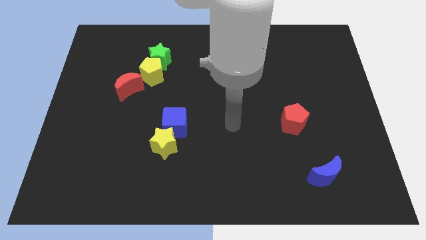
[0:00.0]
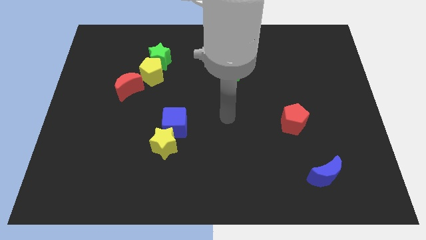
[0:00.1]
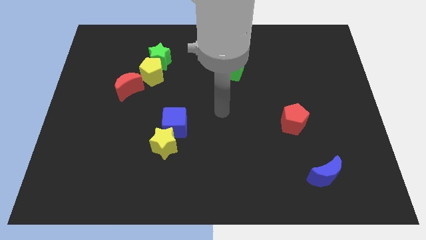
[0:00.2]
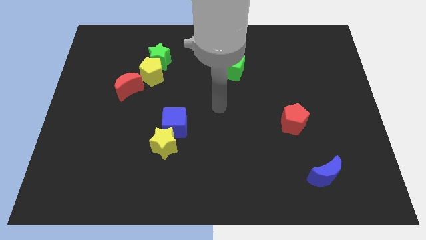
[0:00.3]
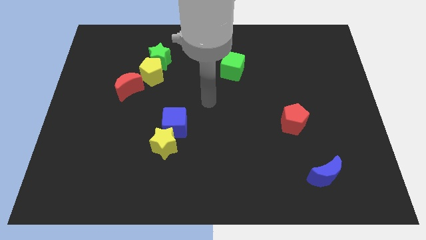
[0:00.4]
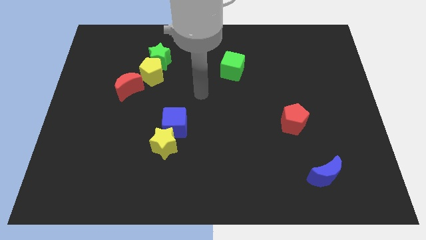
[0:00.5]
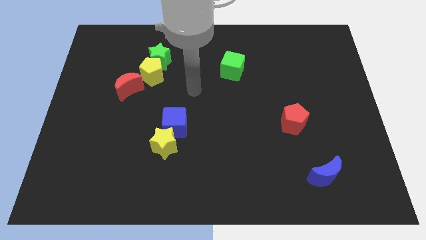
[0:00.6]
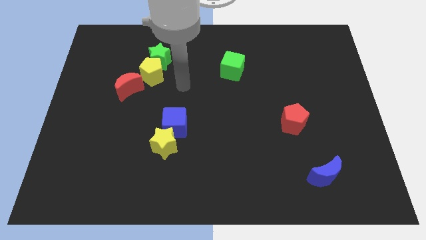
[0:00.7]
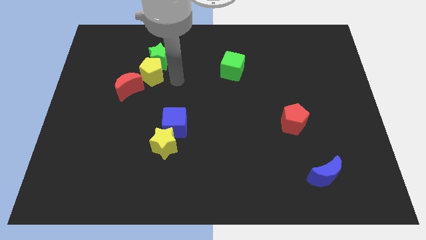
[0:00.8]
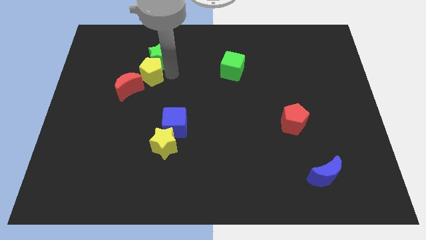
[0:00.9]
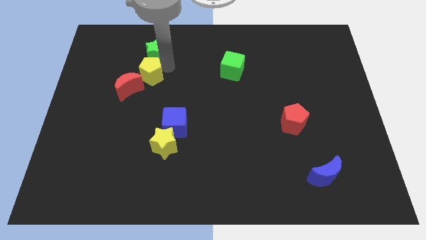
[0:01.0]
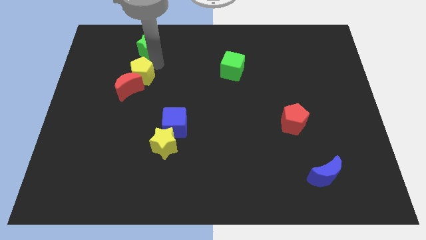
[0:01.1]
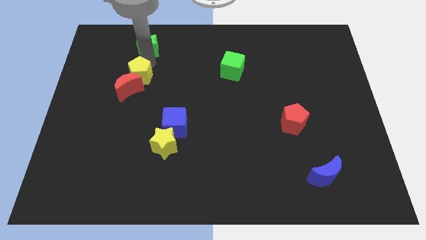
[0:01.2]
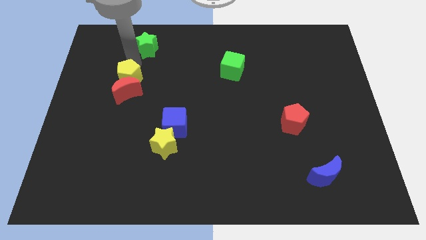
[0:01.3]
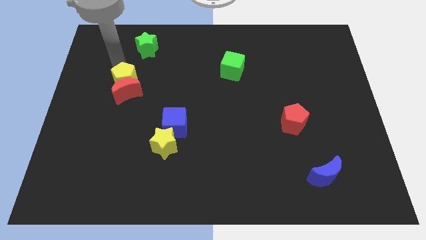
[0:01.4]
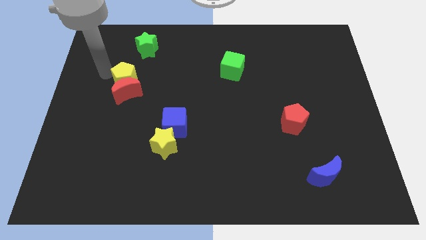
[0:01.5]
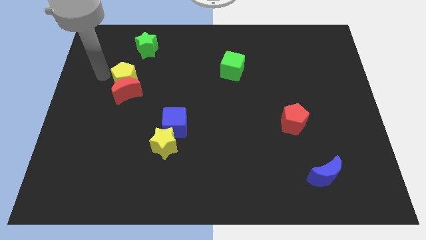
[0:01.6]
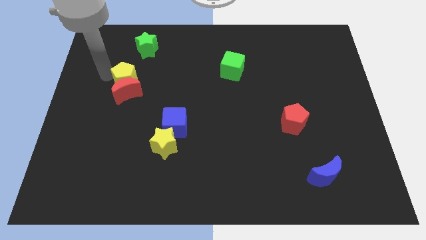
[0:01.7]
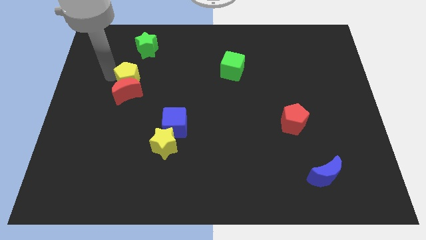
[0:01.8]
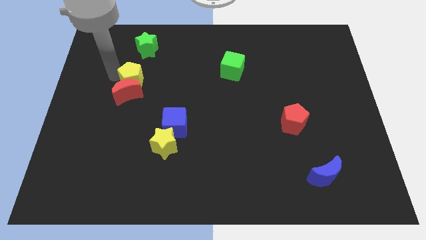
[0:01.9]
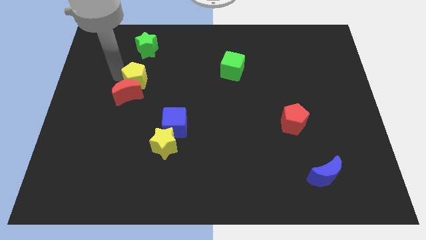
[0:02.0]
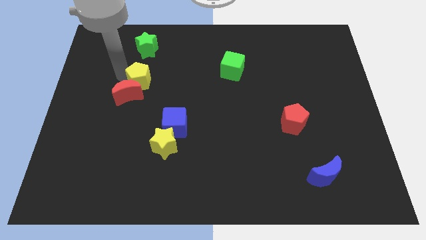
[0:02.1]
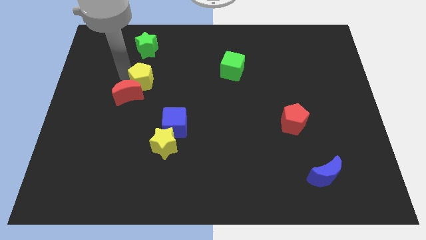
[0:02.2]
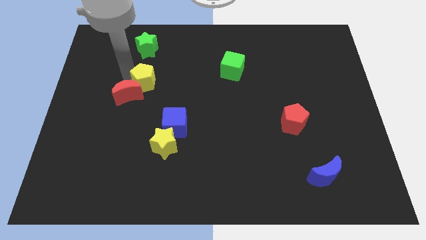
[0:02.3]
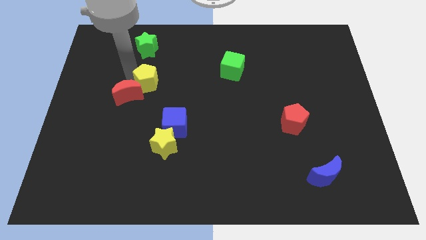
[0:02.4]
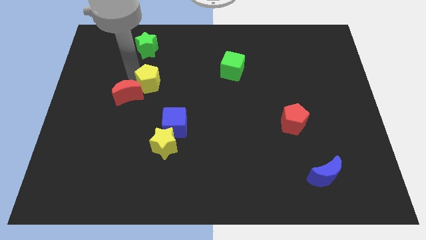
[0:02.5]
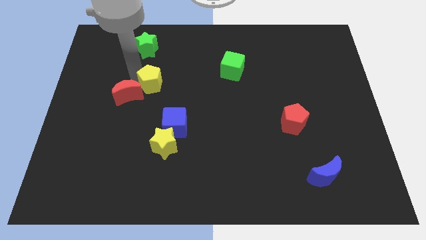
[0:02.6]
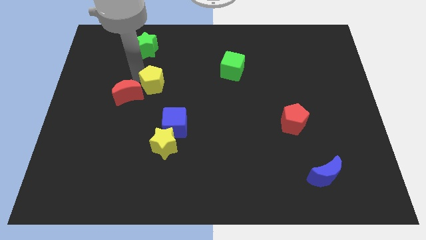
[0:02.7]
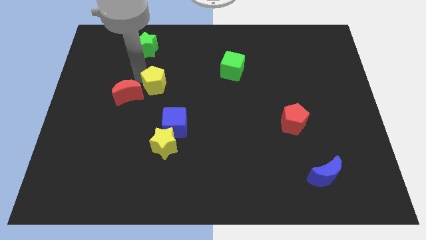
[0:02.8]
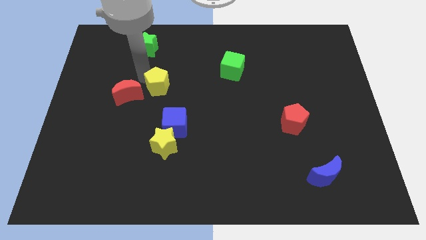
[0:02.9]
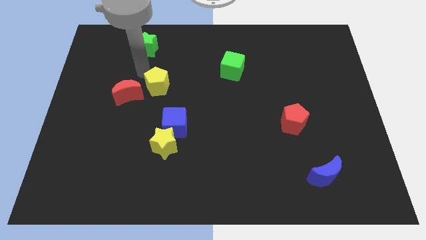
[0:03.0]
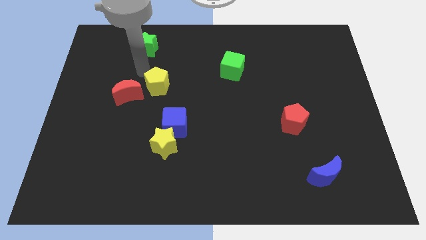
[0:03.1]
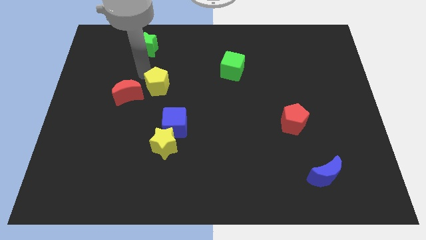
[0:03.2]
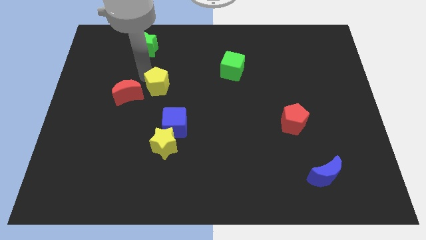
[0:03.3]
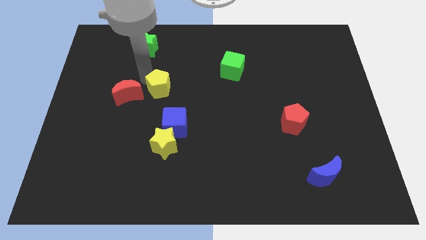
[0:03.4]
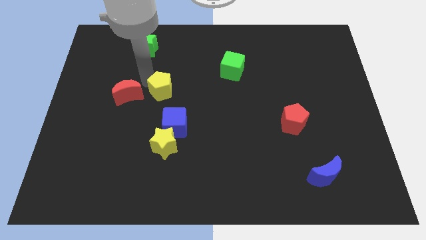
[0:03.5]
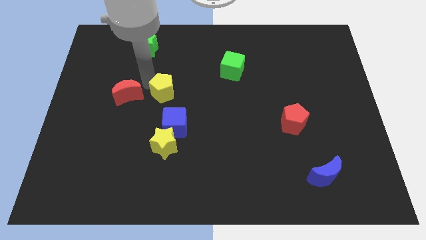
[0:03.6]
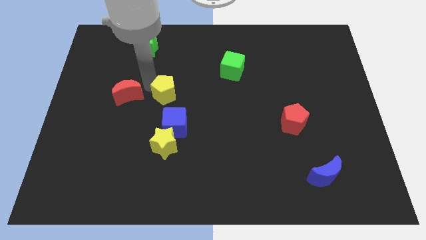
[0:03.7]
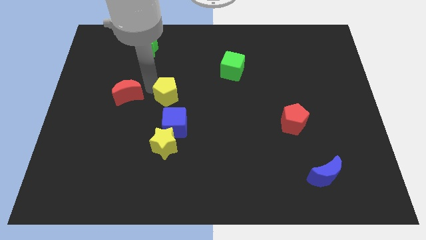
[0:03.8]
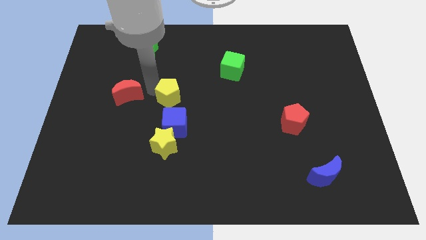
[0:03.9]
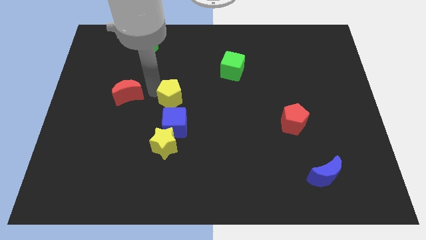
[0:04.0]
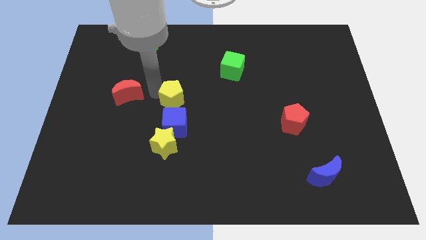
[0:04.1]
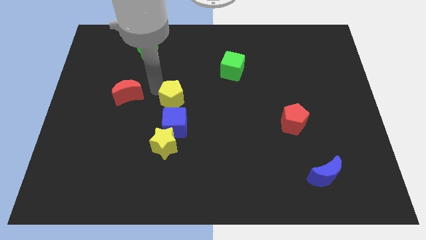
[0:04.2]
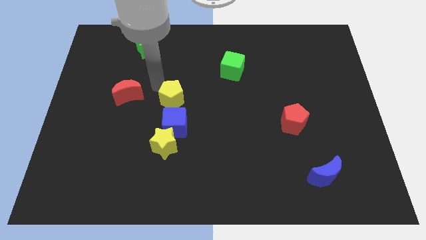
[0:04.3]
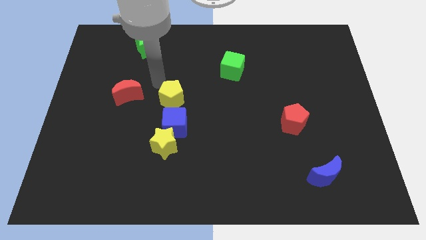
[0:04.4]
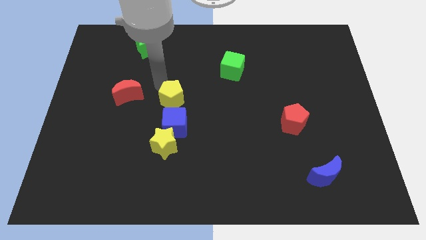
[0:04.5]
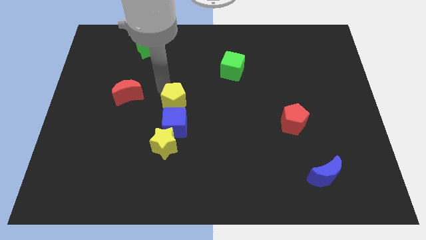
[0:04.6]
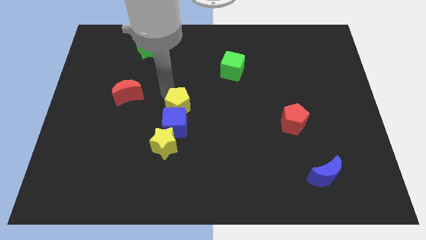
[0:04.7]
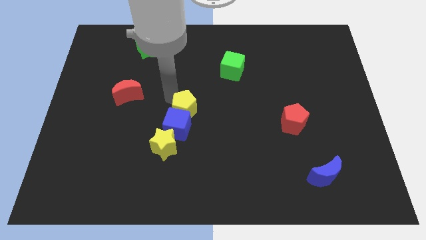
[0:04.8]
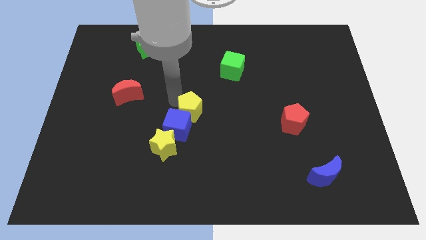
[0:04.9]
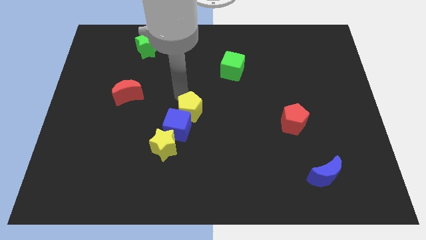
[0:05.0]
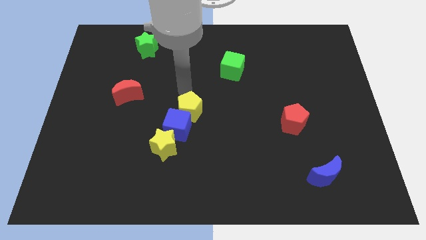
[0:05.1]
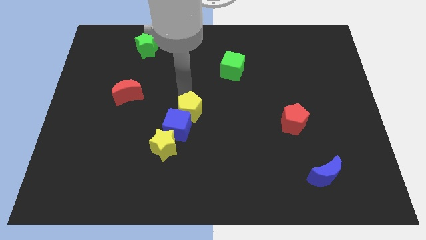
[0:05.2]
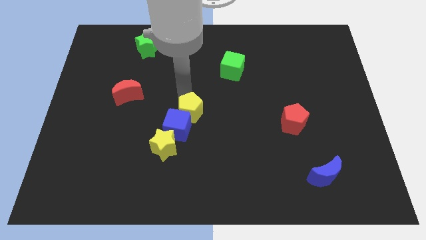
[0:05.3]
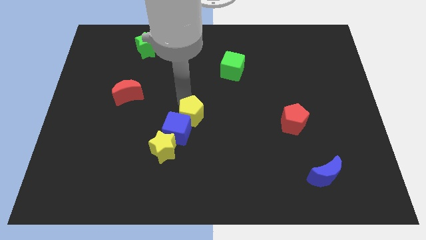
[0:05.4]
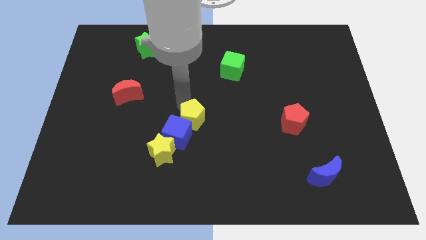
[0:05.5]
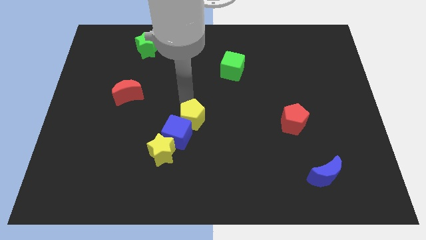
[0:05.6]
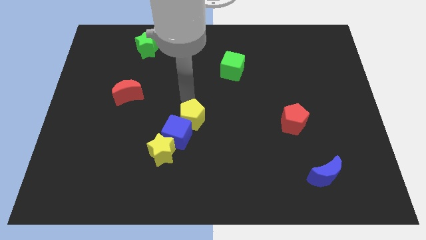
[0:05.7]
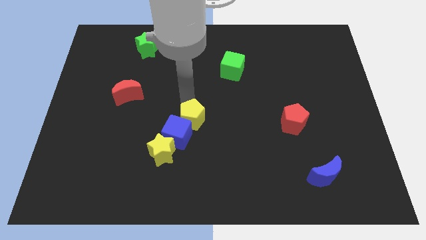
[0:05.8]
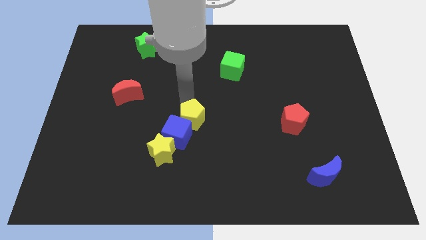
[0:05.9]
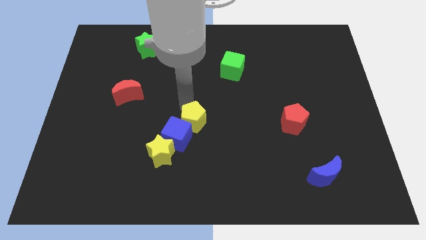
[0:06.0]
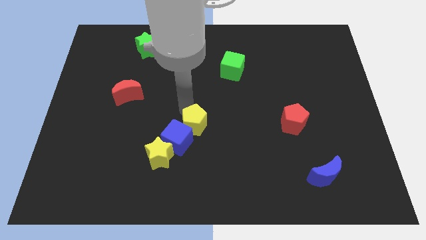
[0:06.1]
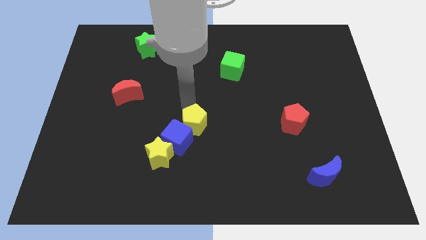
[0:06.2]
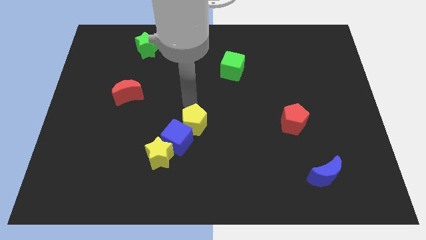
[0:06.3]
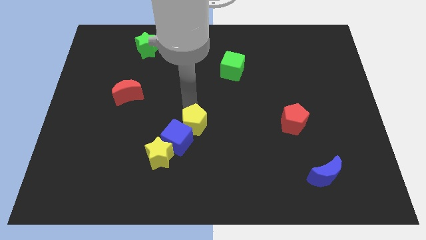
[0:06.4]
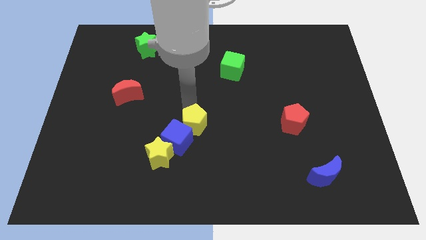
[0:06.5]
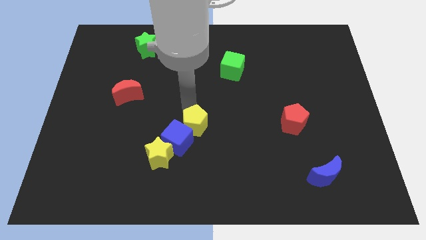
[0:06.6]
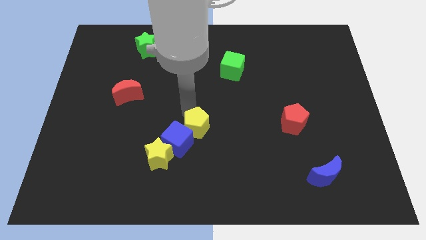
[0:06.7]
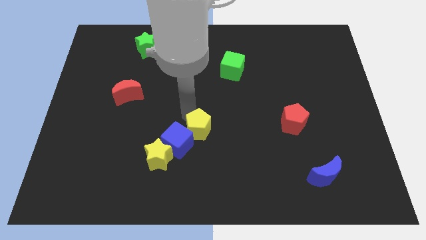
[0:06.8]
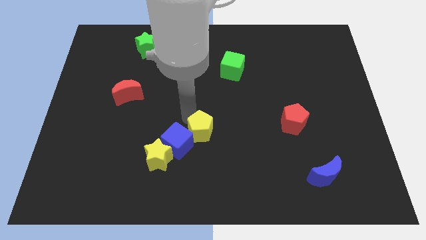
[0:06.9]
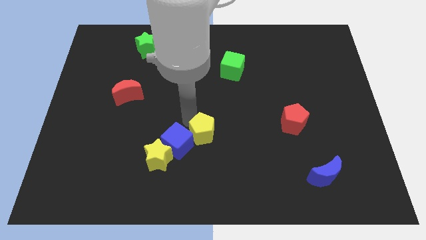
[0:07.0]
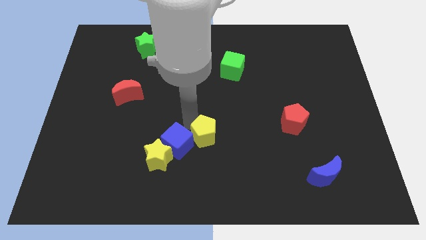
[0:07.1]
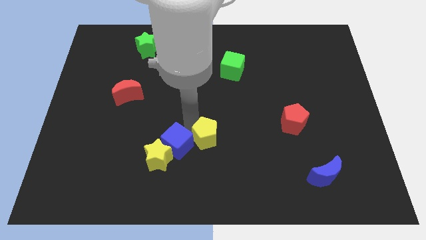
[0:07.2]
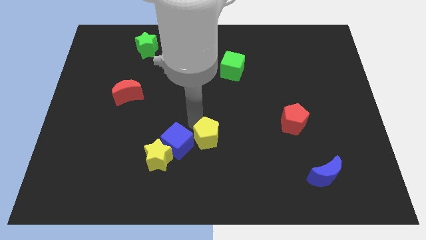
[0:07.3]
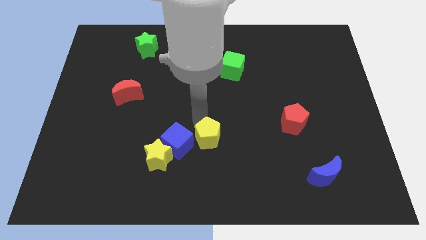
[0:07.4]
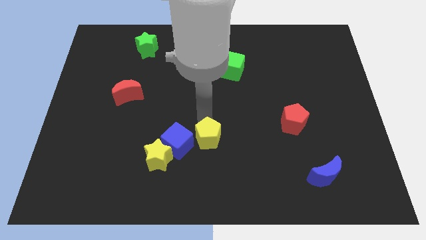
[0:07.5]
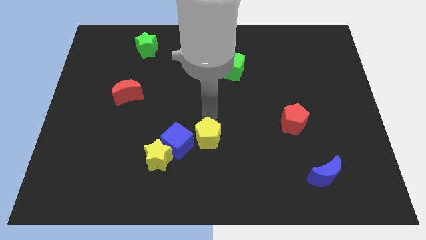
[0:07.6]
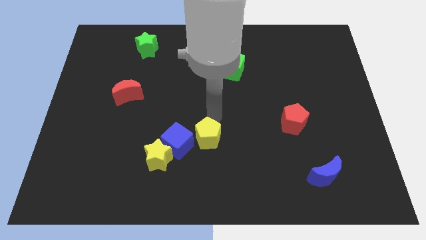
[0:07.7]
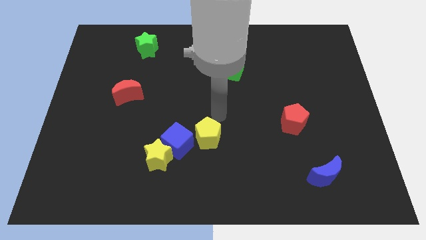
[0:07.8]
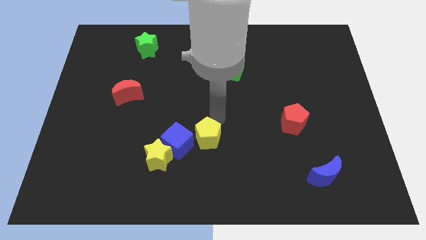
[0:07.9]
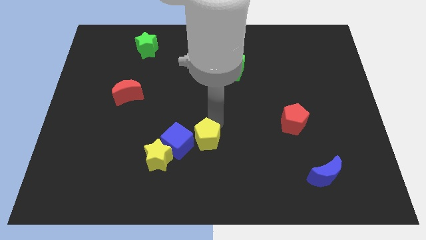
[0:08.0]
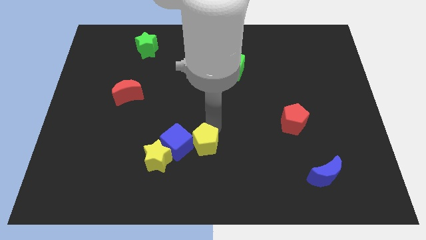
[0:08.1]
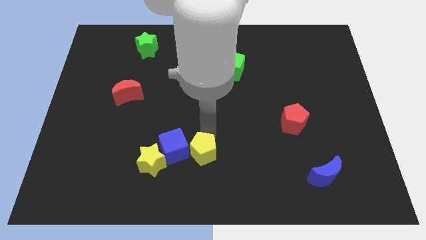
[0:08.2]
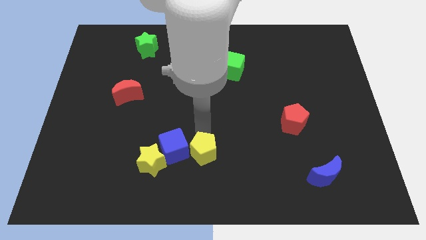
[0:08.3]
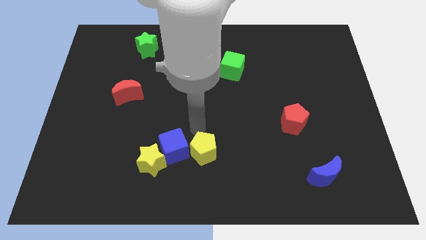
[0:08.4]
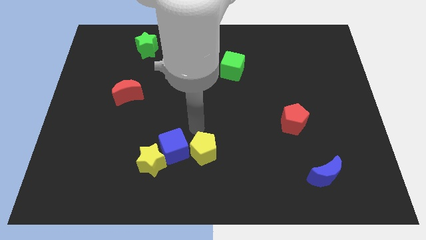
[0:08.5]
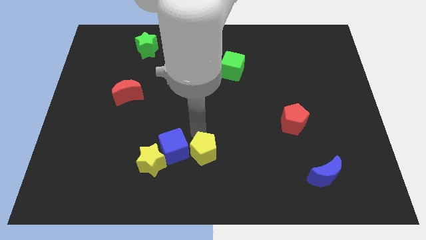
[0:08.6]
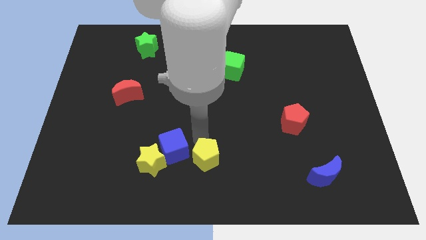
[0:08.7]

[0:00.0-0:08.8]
put the yellow pentagon to the bottom
